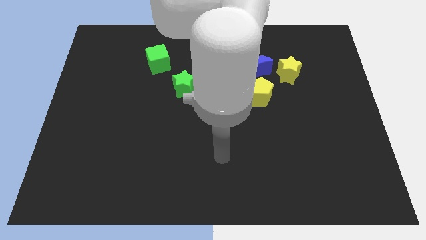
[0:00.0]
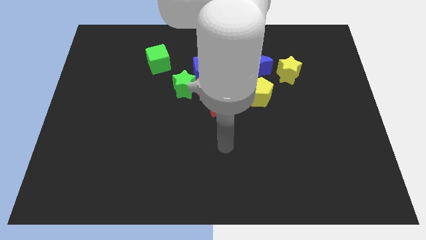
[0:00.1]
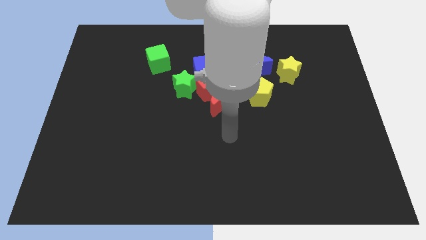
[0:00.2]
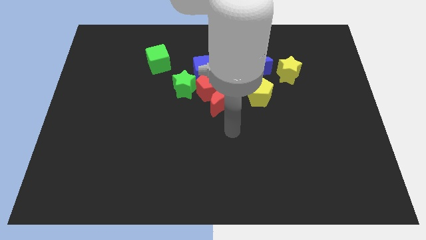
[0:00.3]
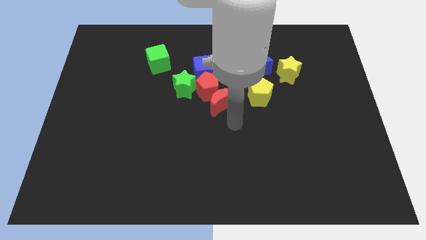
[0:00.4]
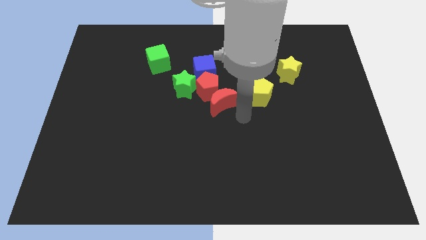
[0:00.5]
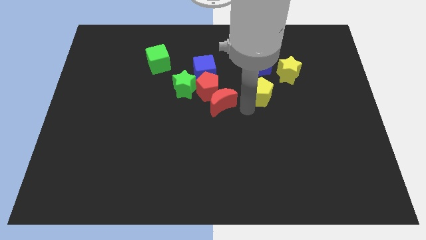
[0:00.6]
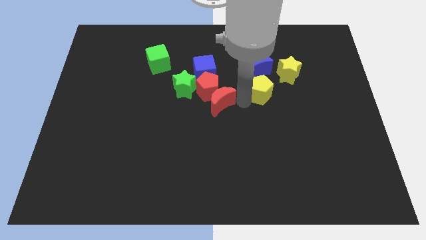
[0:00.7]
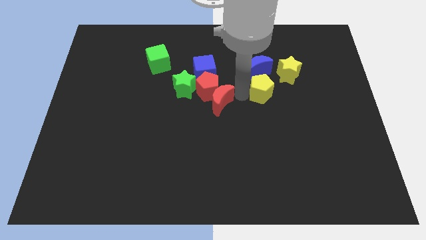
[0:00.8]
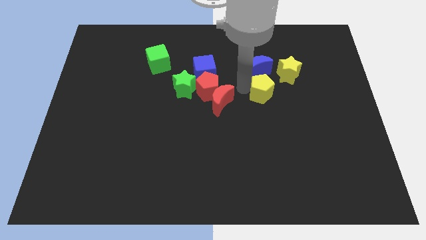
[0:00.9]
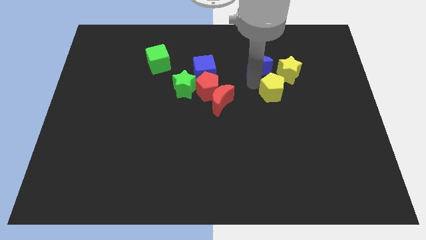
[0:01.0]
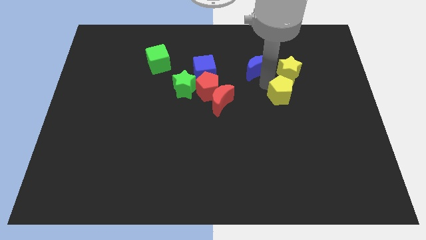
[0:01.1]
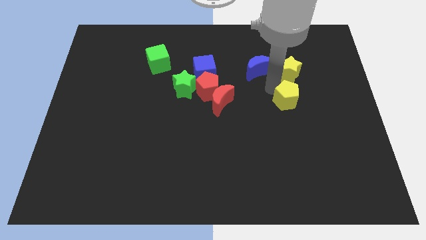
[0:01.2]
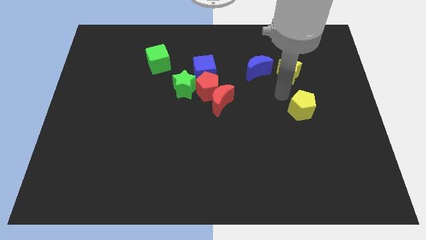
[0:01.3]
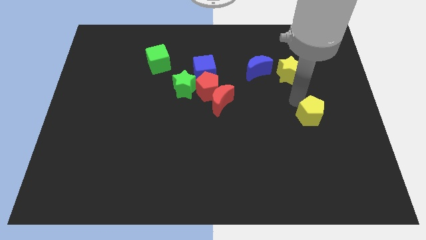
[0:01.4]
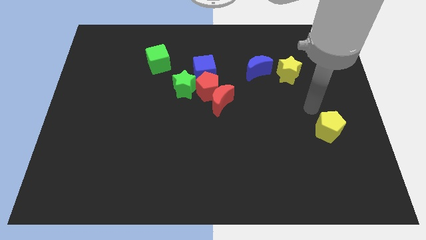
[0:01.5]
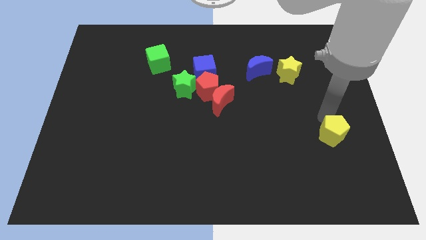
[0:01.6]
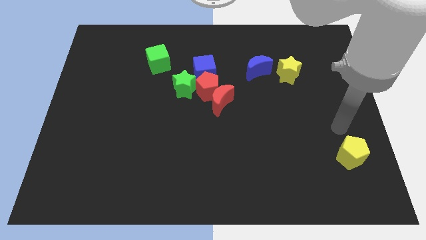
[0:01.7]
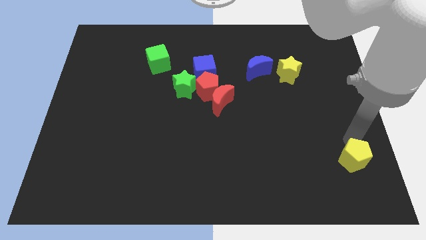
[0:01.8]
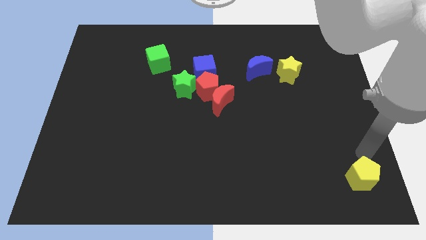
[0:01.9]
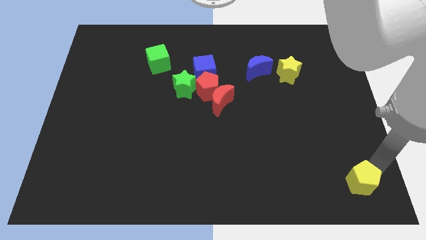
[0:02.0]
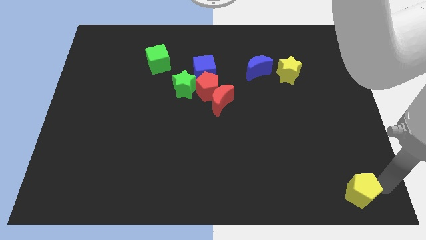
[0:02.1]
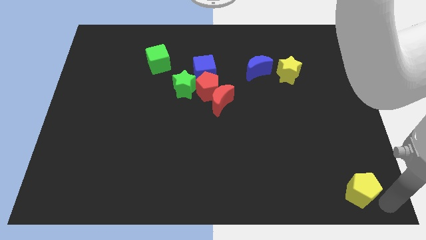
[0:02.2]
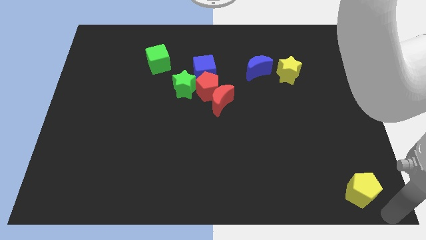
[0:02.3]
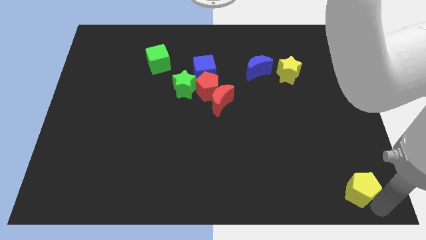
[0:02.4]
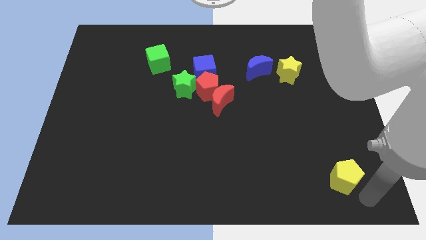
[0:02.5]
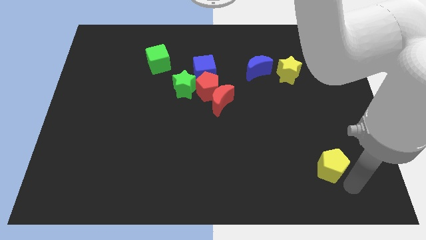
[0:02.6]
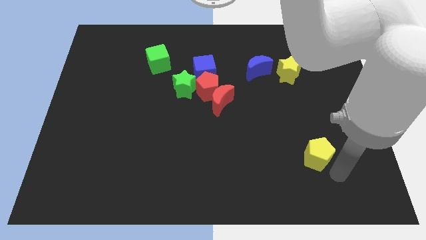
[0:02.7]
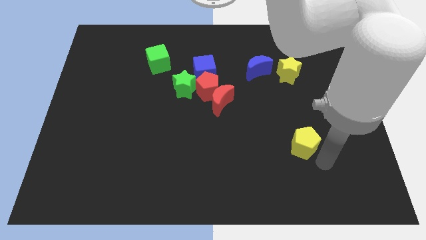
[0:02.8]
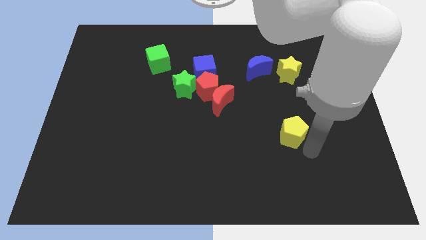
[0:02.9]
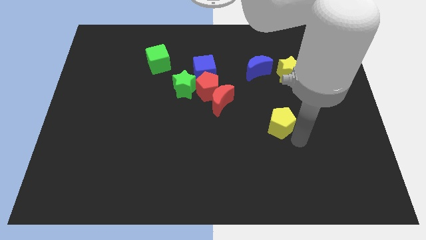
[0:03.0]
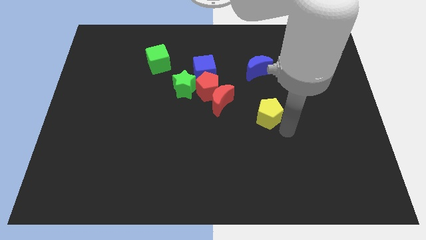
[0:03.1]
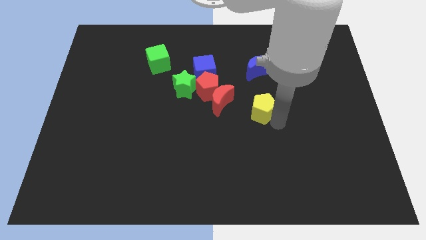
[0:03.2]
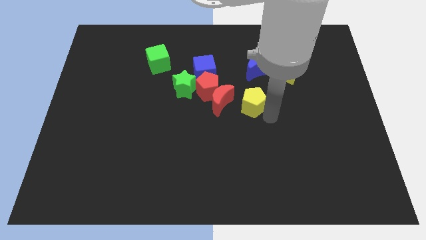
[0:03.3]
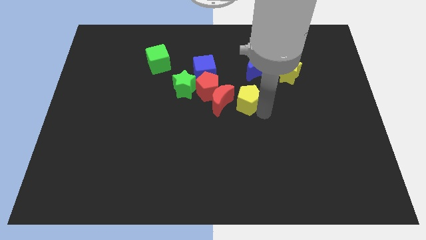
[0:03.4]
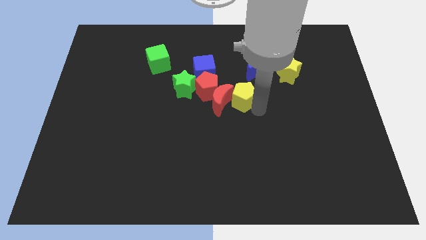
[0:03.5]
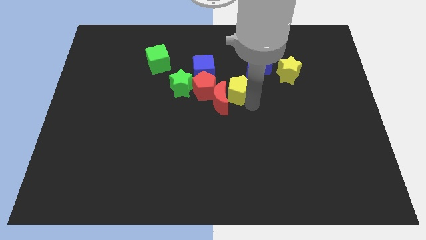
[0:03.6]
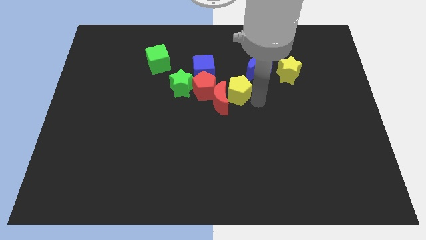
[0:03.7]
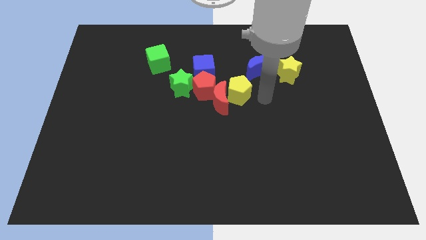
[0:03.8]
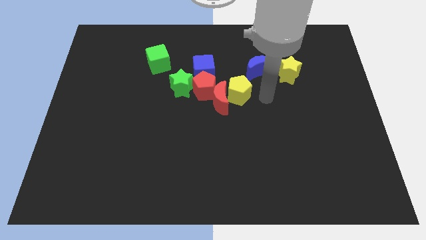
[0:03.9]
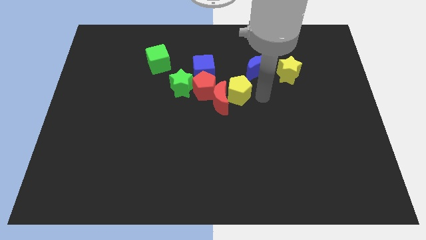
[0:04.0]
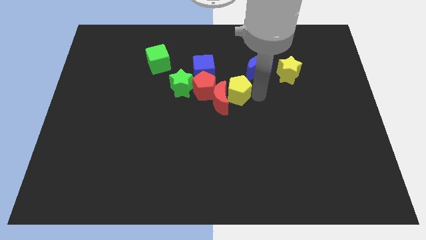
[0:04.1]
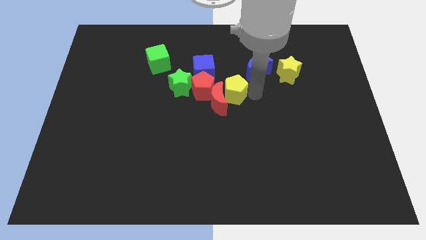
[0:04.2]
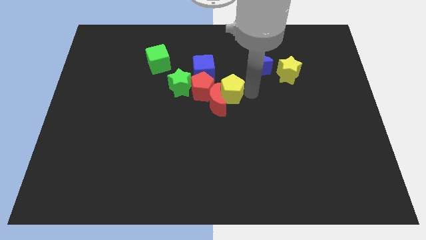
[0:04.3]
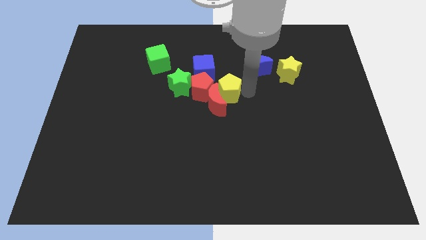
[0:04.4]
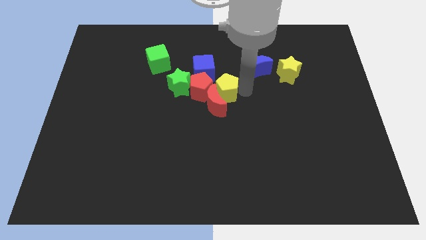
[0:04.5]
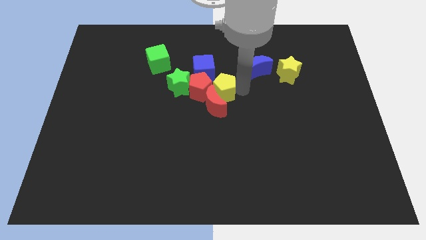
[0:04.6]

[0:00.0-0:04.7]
put the yellow pentagon to the red pentagon

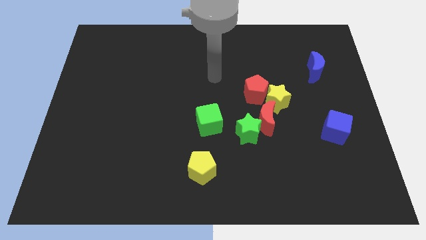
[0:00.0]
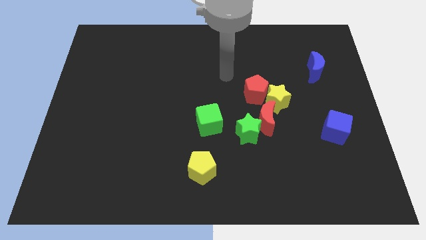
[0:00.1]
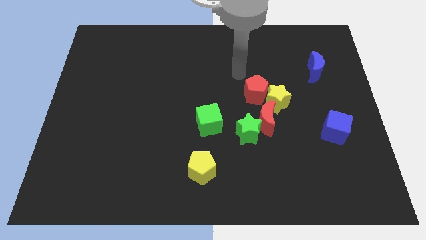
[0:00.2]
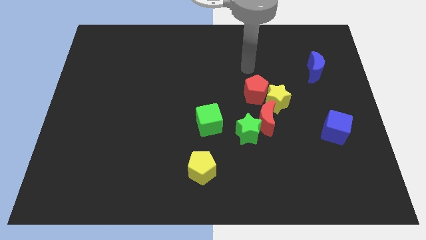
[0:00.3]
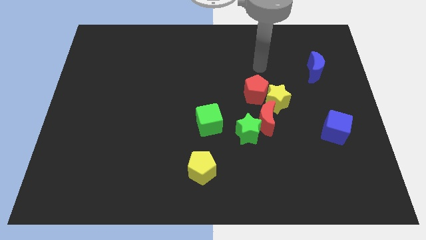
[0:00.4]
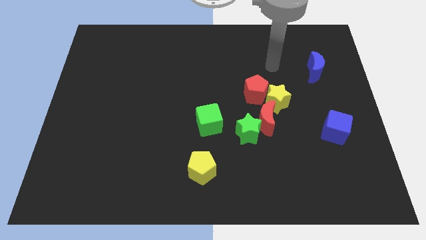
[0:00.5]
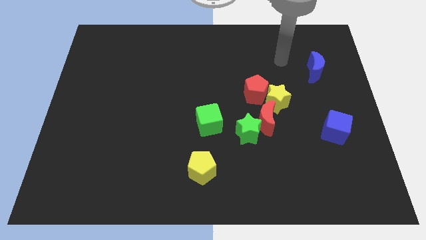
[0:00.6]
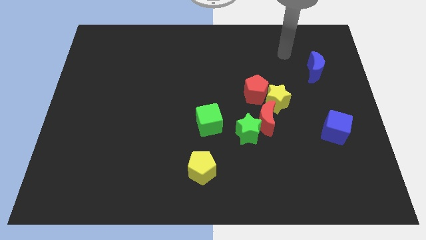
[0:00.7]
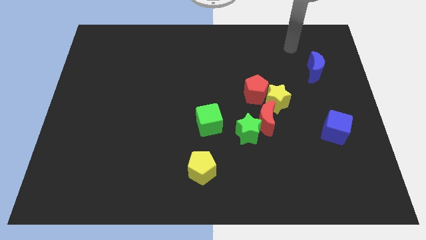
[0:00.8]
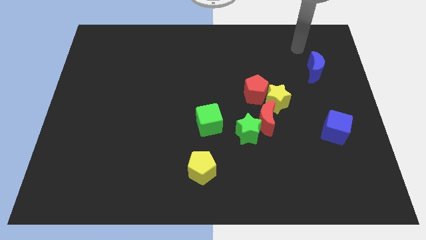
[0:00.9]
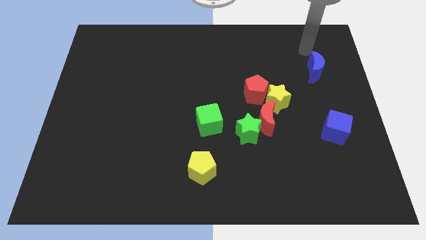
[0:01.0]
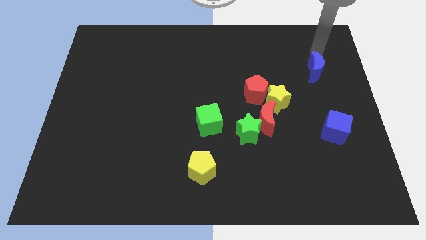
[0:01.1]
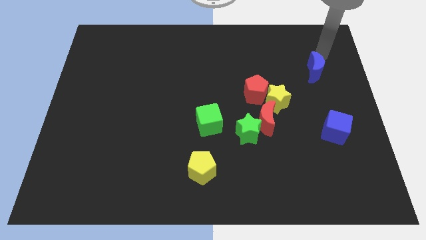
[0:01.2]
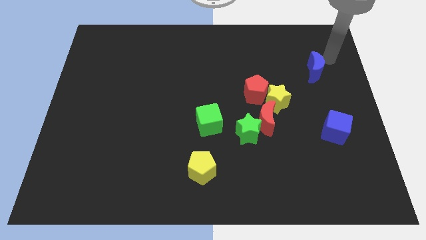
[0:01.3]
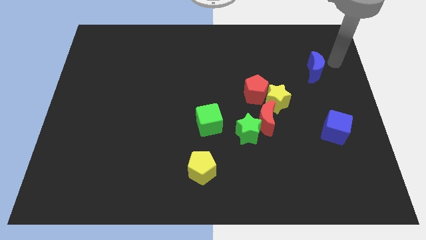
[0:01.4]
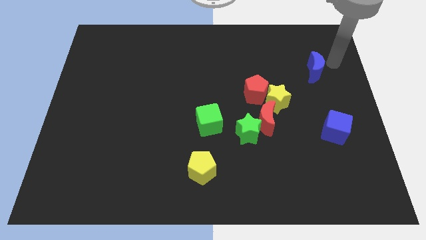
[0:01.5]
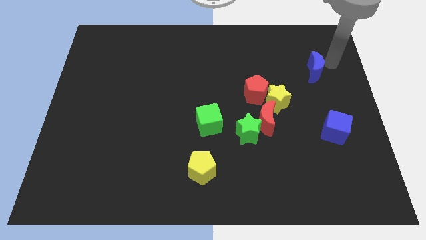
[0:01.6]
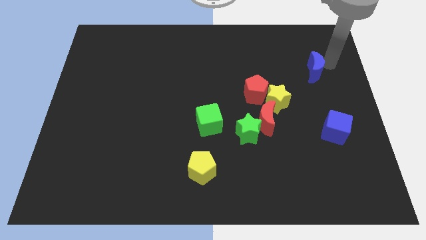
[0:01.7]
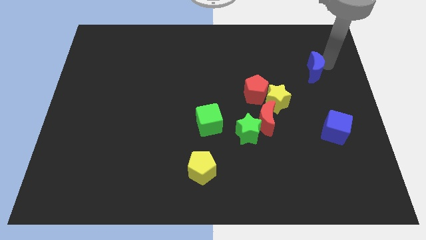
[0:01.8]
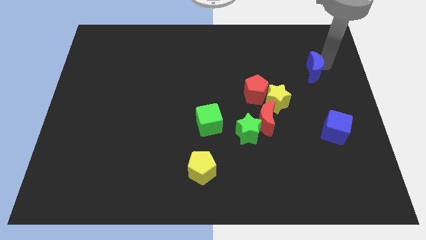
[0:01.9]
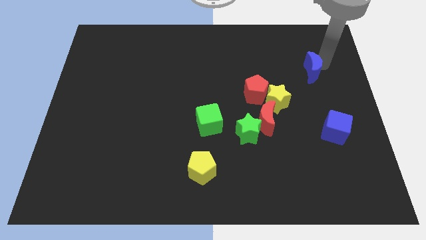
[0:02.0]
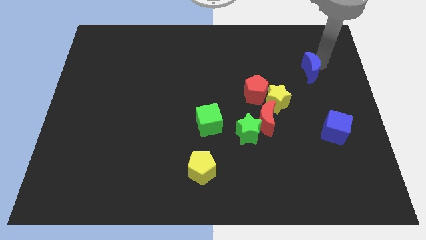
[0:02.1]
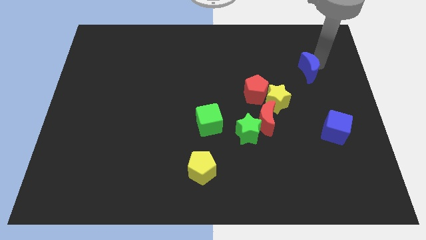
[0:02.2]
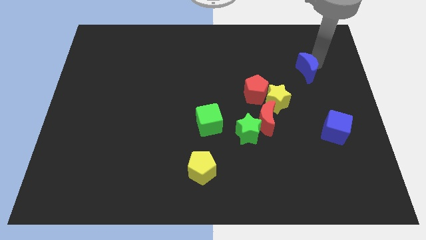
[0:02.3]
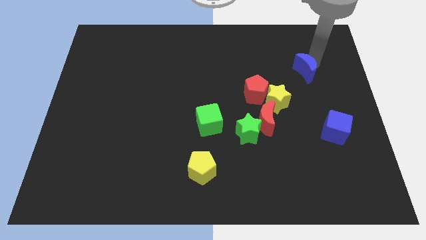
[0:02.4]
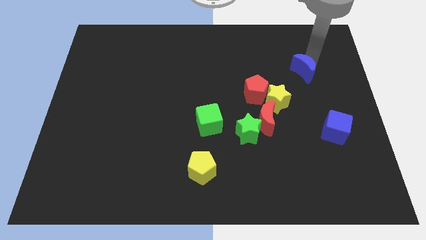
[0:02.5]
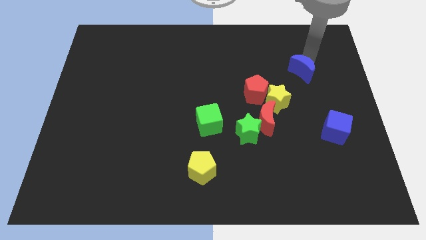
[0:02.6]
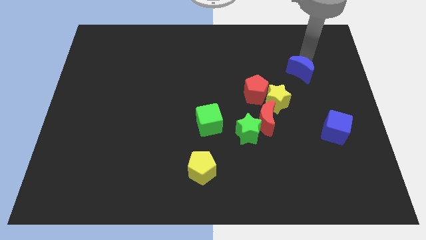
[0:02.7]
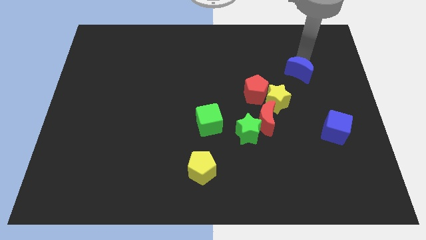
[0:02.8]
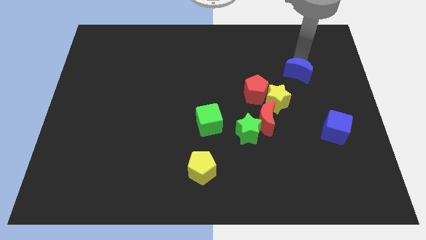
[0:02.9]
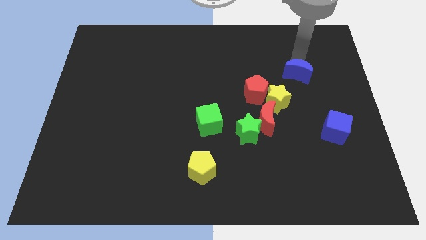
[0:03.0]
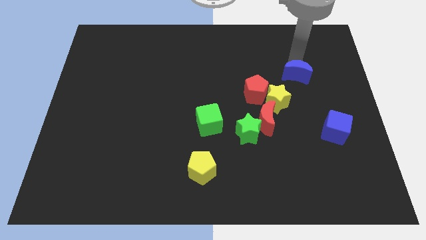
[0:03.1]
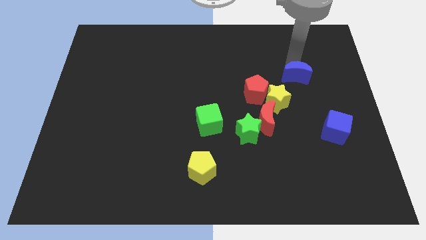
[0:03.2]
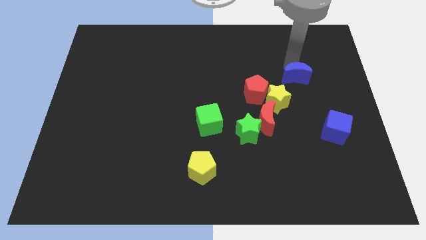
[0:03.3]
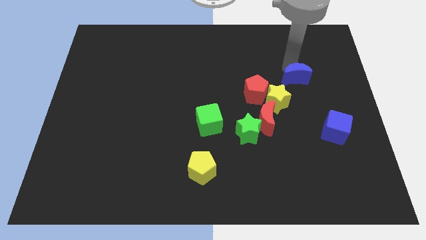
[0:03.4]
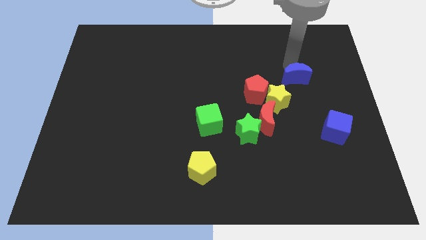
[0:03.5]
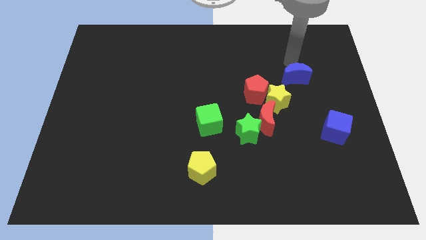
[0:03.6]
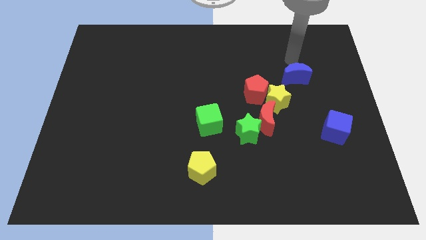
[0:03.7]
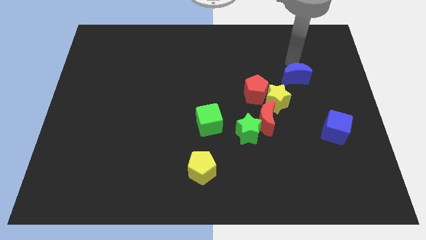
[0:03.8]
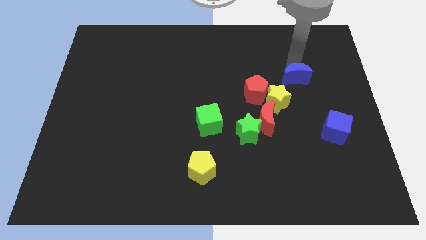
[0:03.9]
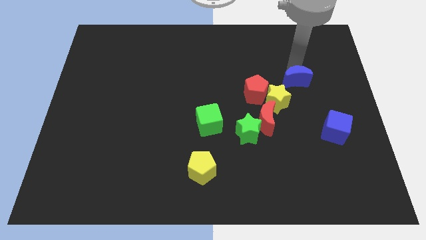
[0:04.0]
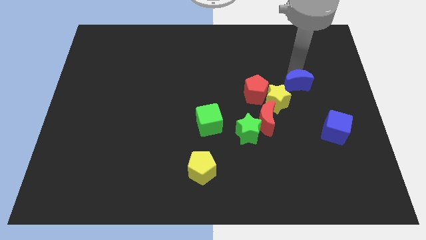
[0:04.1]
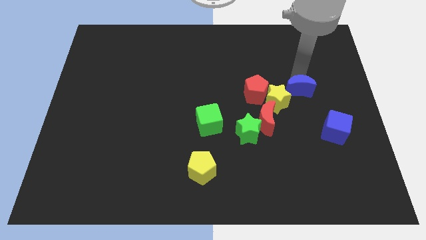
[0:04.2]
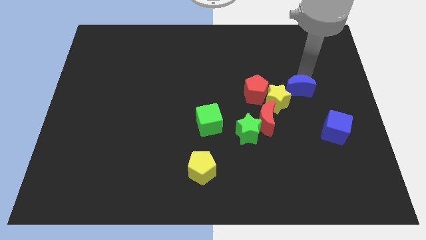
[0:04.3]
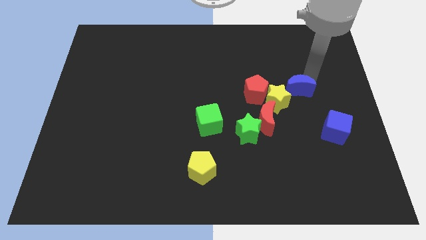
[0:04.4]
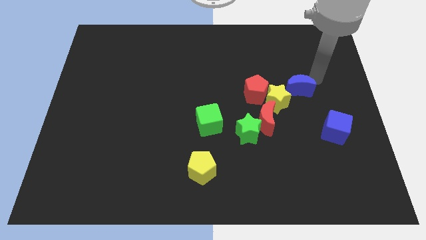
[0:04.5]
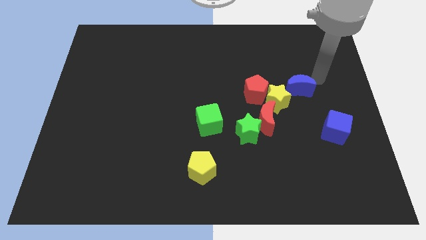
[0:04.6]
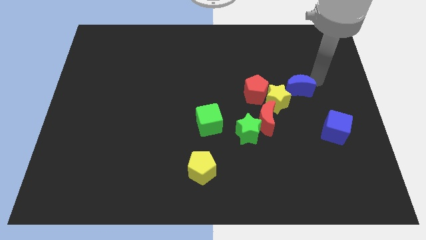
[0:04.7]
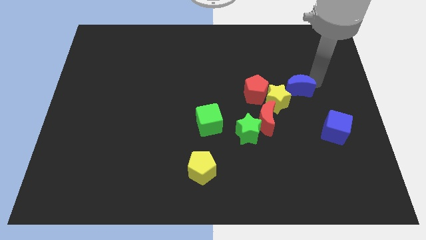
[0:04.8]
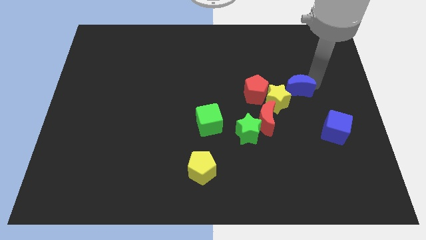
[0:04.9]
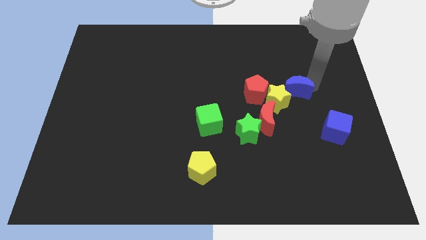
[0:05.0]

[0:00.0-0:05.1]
move the blue moon towards the yellow star
